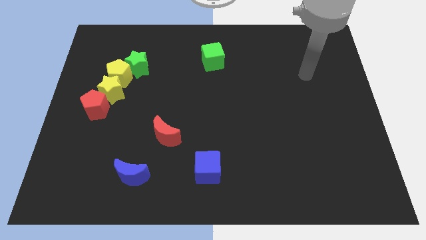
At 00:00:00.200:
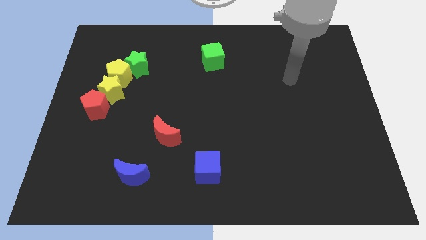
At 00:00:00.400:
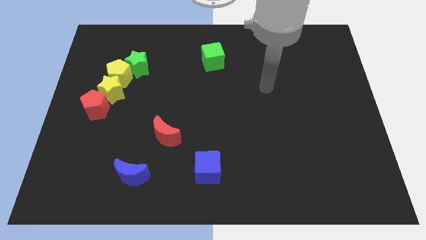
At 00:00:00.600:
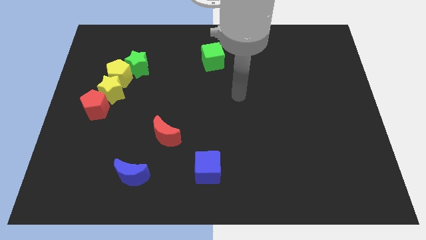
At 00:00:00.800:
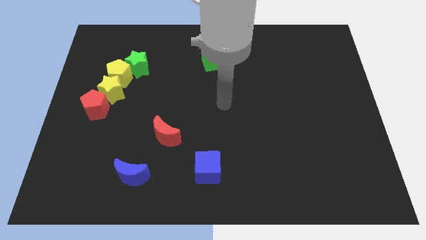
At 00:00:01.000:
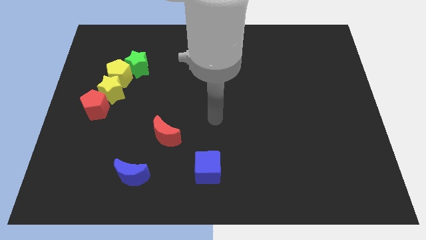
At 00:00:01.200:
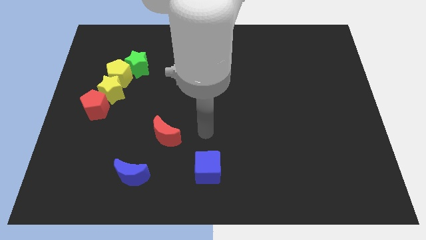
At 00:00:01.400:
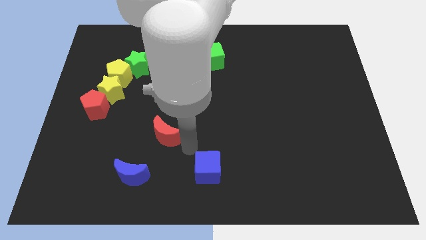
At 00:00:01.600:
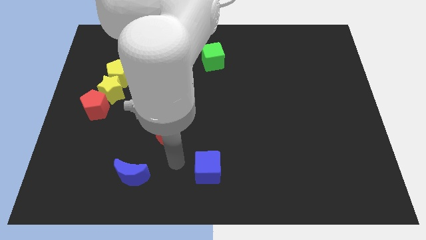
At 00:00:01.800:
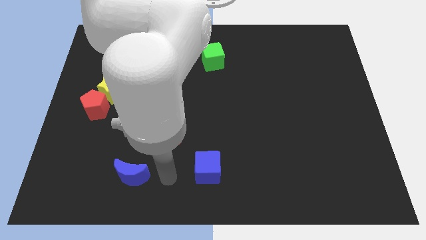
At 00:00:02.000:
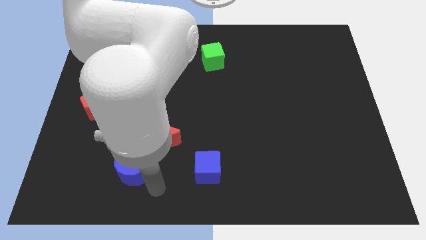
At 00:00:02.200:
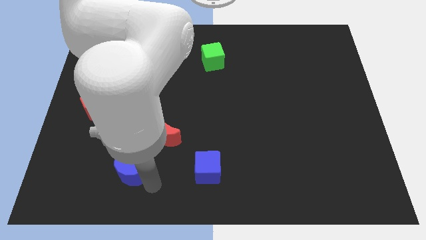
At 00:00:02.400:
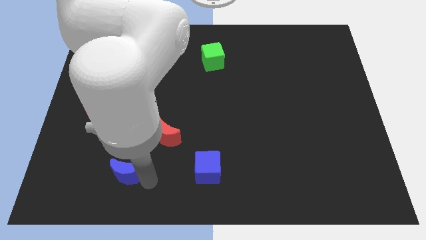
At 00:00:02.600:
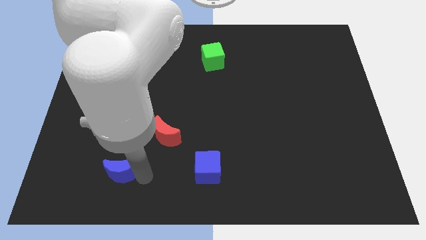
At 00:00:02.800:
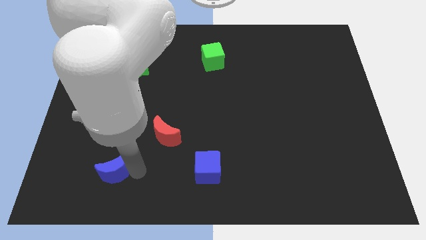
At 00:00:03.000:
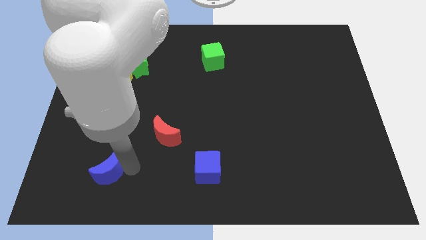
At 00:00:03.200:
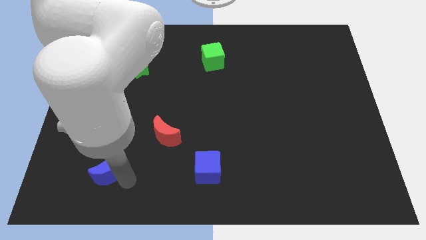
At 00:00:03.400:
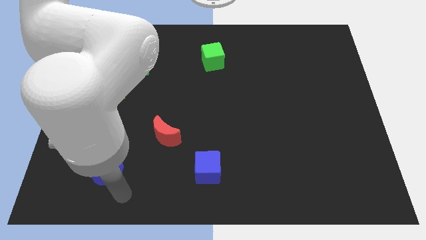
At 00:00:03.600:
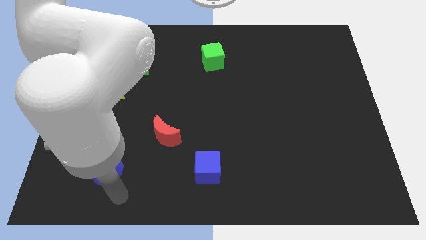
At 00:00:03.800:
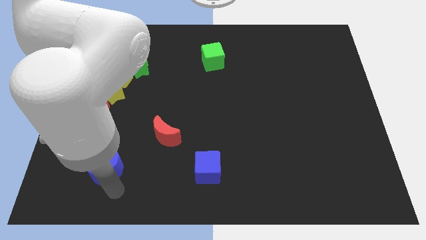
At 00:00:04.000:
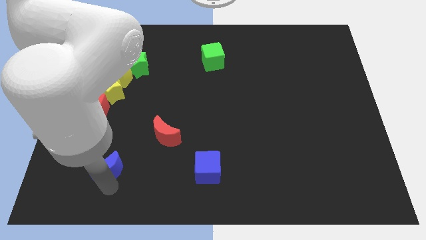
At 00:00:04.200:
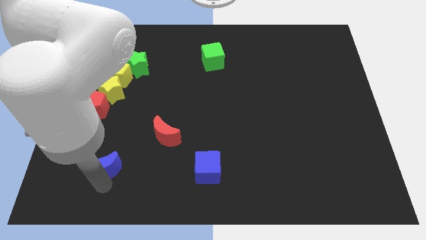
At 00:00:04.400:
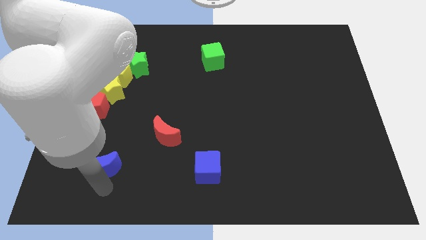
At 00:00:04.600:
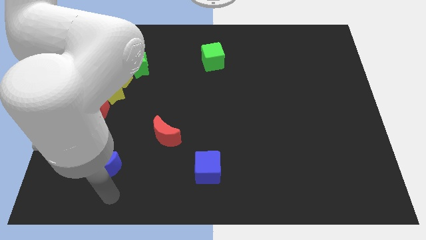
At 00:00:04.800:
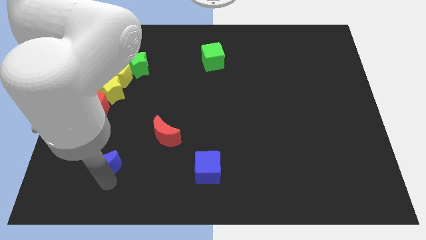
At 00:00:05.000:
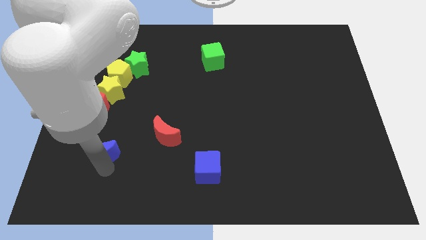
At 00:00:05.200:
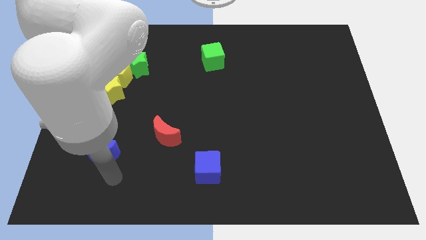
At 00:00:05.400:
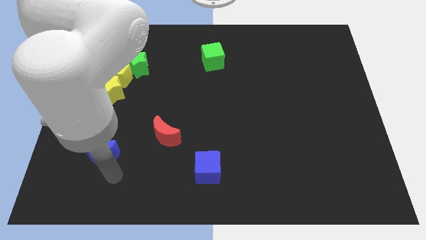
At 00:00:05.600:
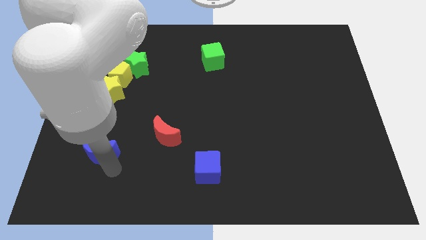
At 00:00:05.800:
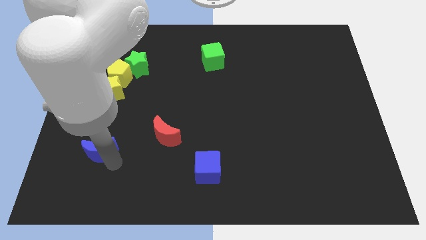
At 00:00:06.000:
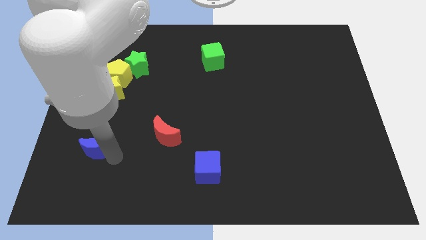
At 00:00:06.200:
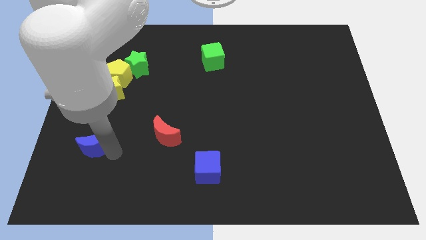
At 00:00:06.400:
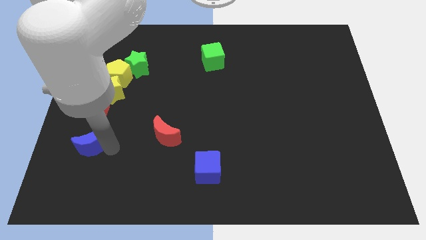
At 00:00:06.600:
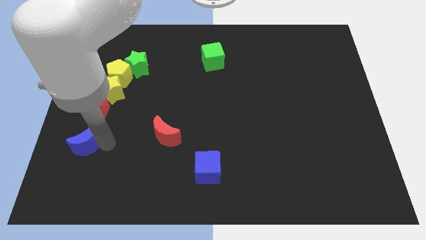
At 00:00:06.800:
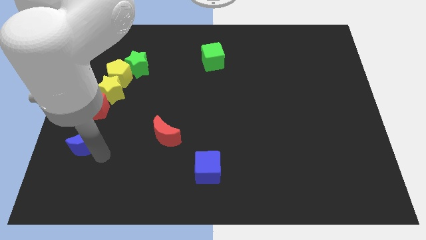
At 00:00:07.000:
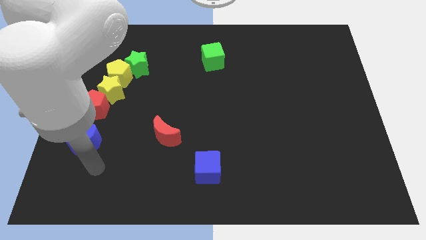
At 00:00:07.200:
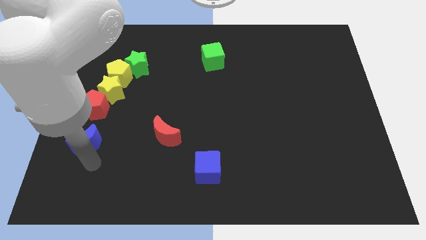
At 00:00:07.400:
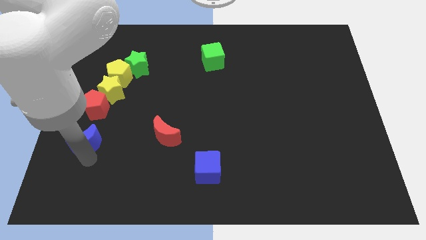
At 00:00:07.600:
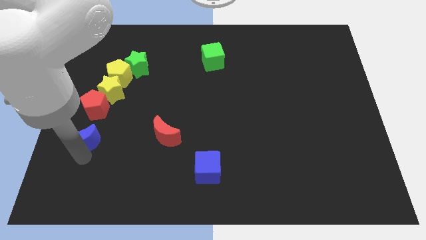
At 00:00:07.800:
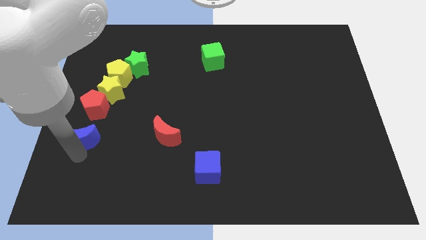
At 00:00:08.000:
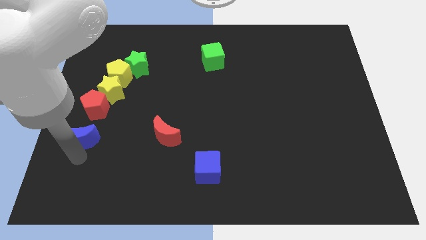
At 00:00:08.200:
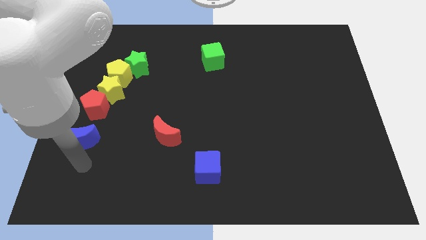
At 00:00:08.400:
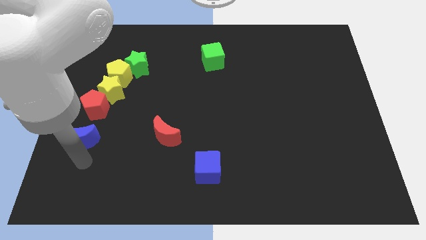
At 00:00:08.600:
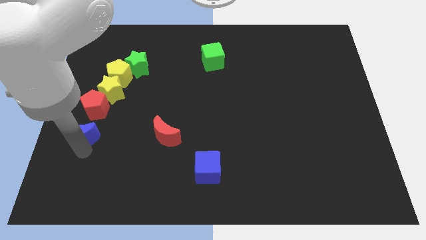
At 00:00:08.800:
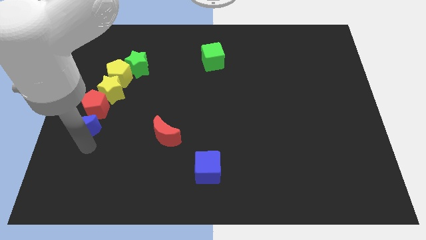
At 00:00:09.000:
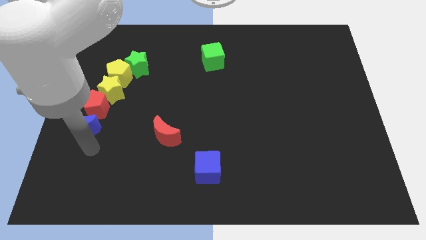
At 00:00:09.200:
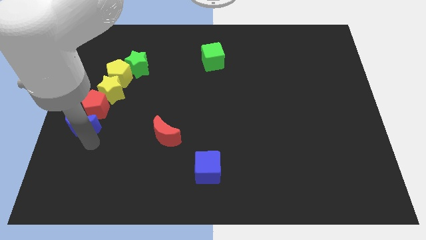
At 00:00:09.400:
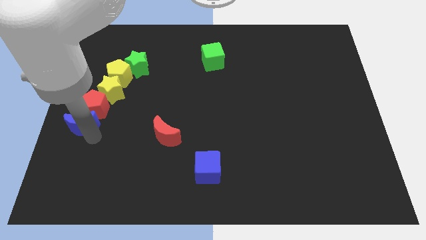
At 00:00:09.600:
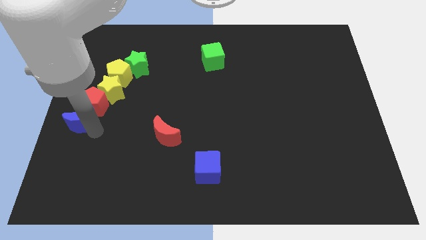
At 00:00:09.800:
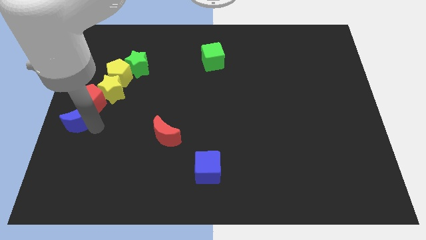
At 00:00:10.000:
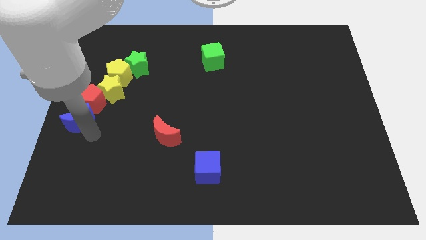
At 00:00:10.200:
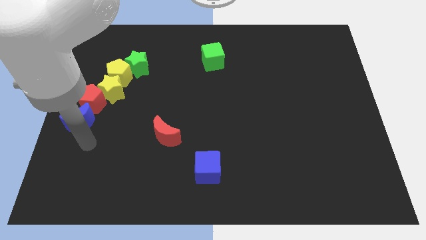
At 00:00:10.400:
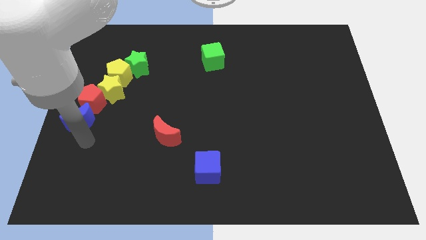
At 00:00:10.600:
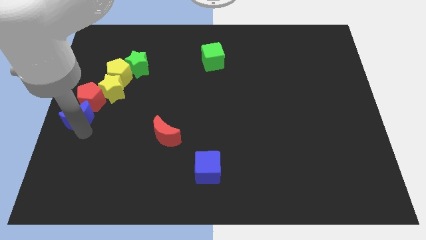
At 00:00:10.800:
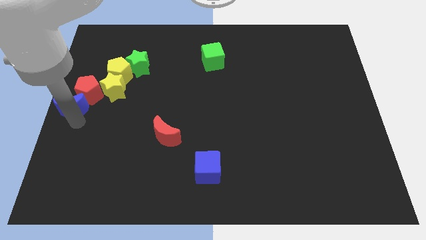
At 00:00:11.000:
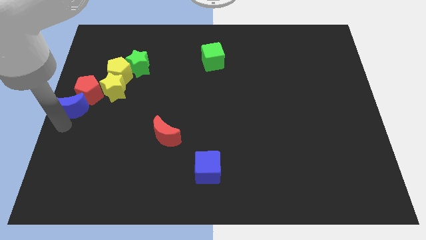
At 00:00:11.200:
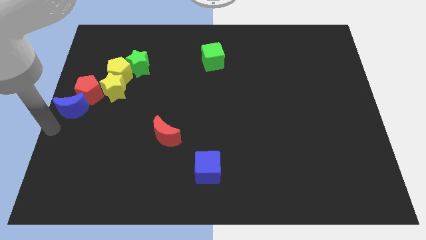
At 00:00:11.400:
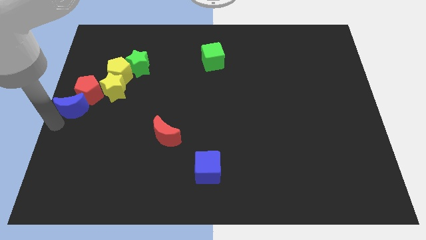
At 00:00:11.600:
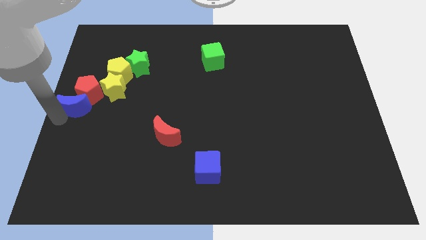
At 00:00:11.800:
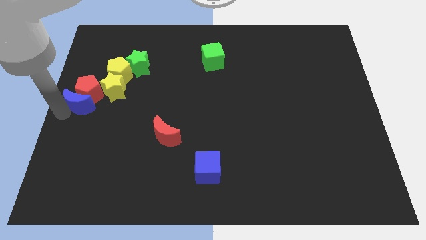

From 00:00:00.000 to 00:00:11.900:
put the blue moon diagonally down and to the left of the yellow pentagon

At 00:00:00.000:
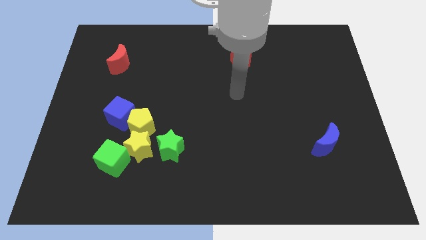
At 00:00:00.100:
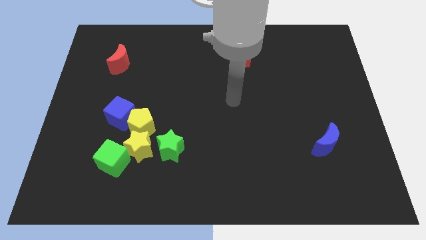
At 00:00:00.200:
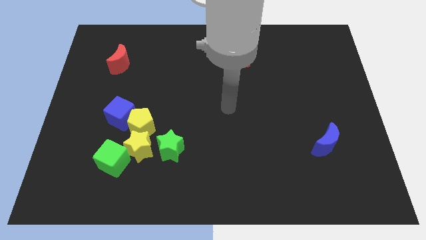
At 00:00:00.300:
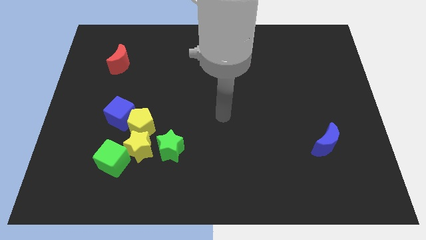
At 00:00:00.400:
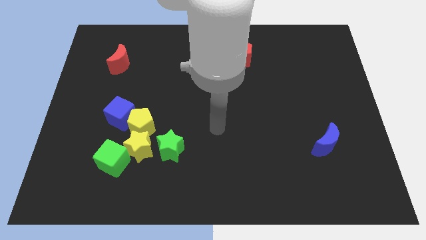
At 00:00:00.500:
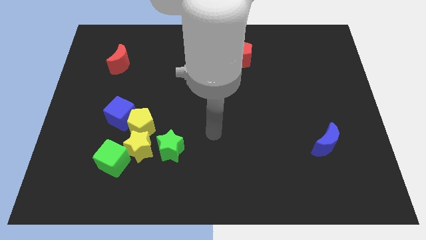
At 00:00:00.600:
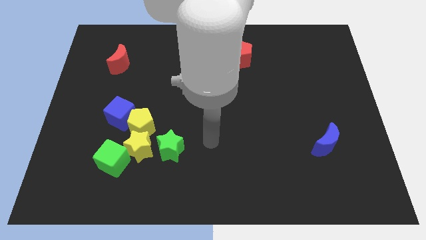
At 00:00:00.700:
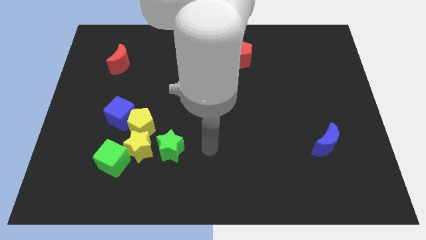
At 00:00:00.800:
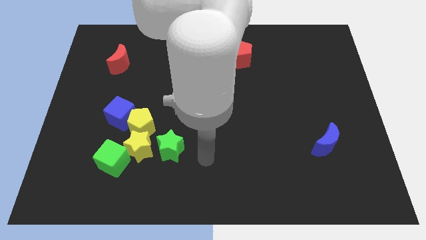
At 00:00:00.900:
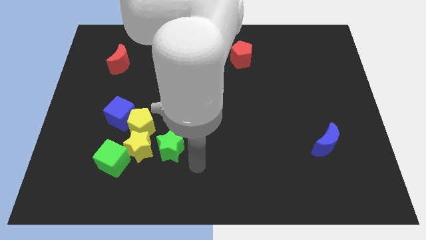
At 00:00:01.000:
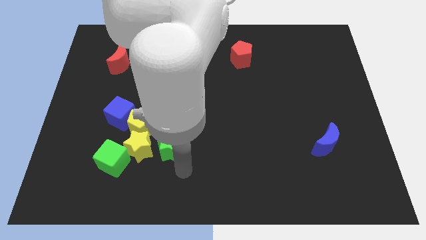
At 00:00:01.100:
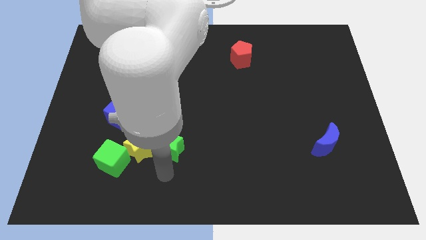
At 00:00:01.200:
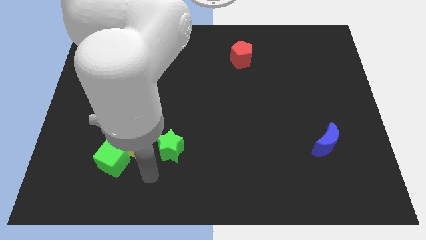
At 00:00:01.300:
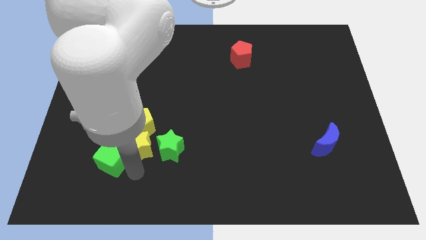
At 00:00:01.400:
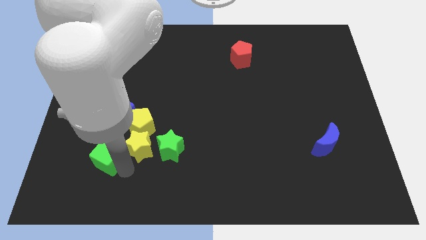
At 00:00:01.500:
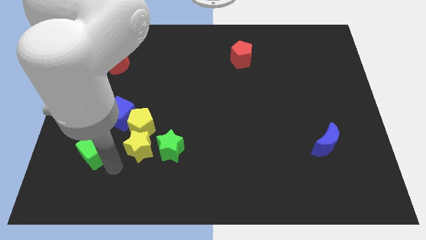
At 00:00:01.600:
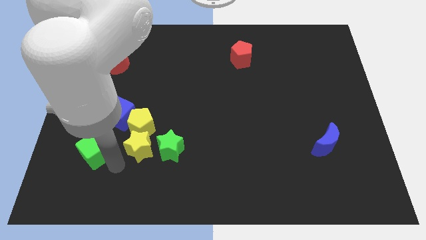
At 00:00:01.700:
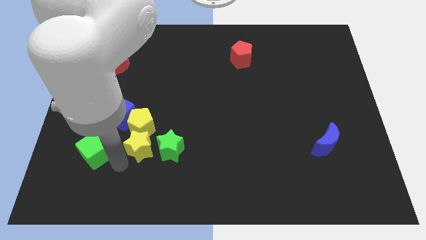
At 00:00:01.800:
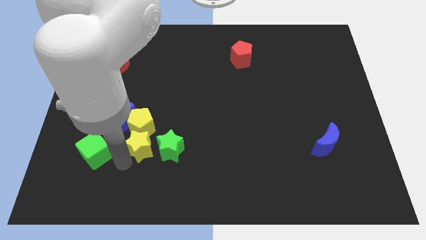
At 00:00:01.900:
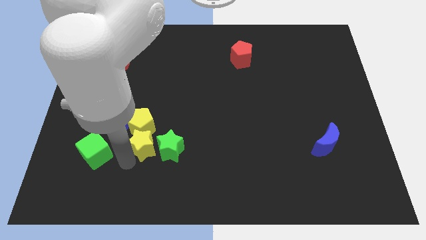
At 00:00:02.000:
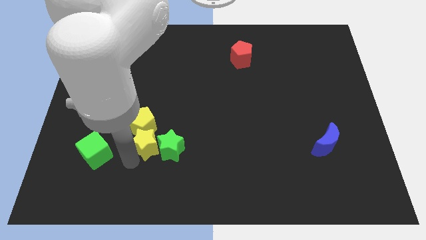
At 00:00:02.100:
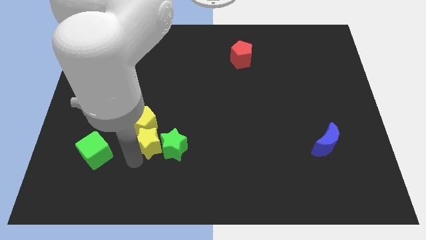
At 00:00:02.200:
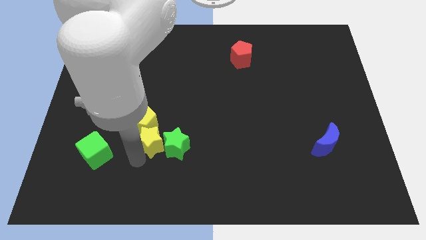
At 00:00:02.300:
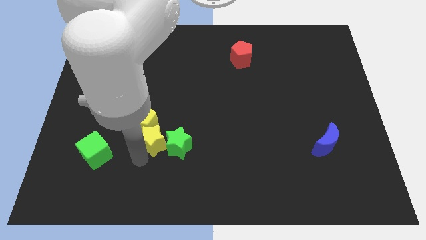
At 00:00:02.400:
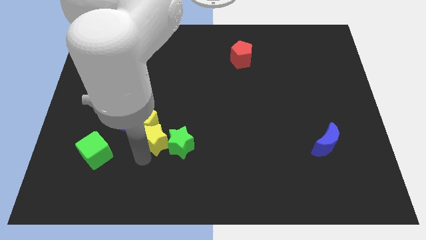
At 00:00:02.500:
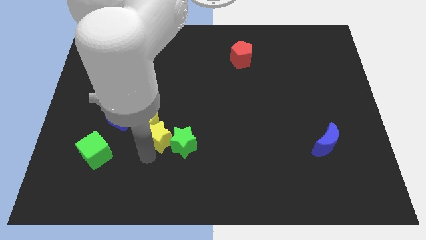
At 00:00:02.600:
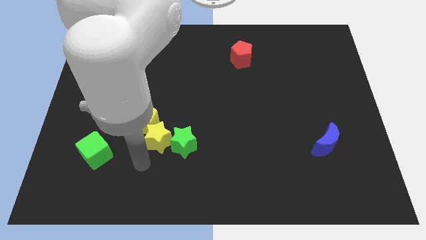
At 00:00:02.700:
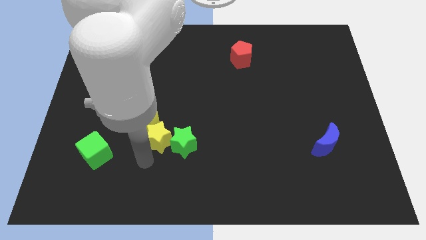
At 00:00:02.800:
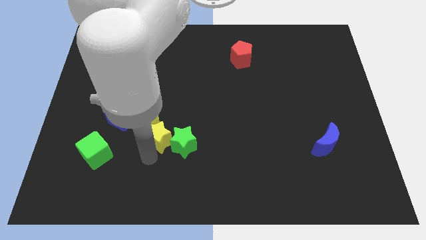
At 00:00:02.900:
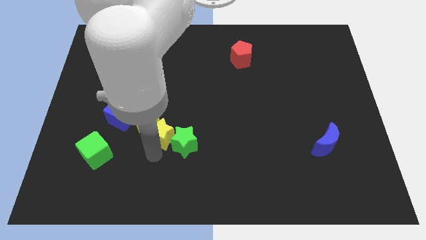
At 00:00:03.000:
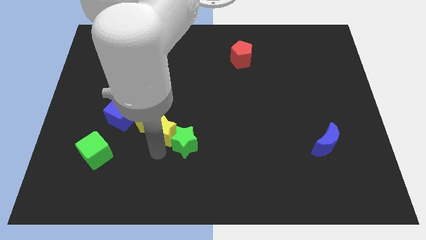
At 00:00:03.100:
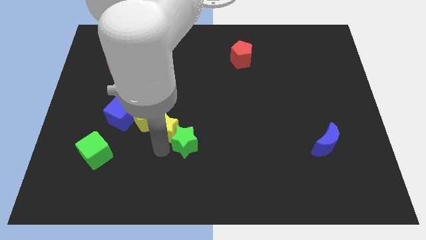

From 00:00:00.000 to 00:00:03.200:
move the yellow star to the top side of the green star
